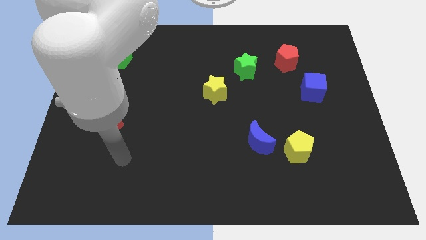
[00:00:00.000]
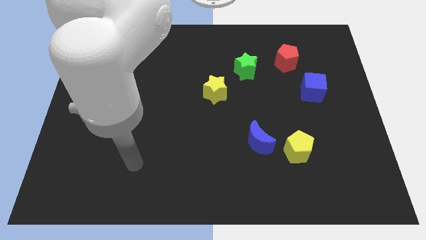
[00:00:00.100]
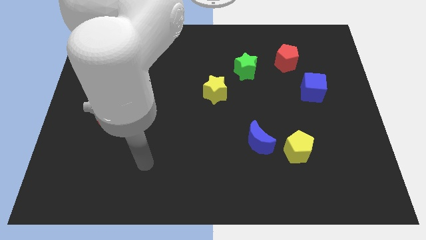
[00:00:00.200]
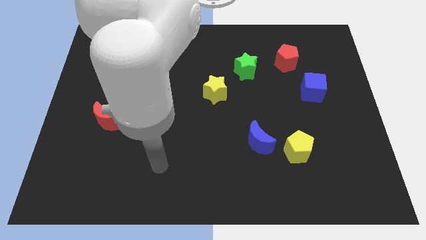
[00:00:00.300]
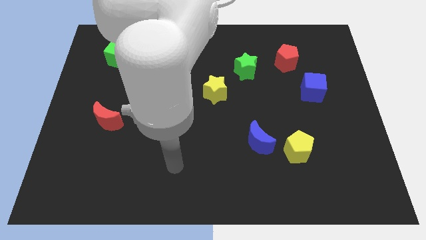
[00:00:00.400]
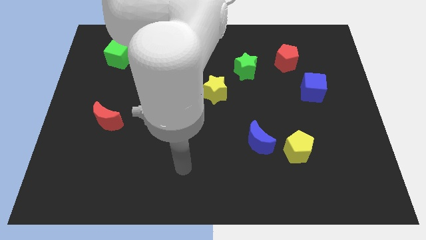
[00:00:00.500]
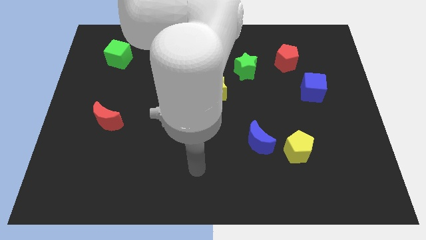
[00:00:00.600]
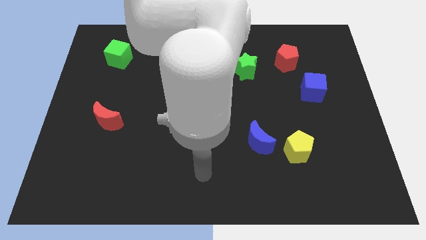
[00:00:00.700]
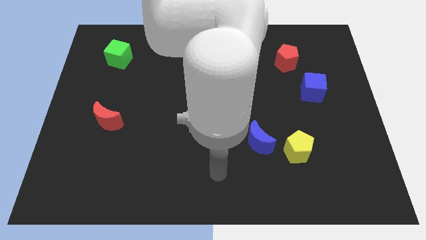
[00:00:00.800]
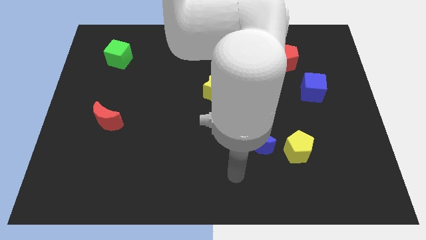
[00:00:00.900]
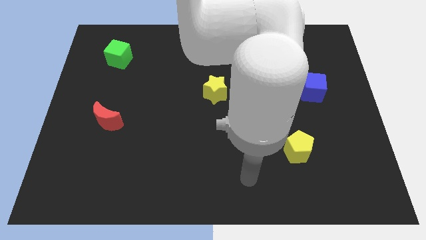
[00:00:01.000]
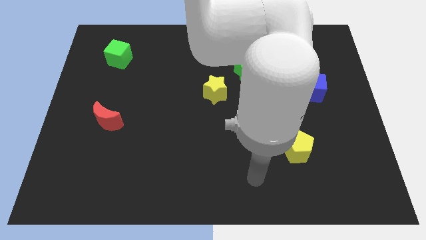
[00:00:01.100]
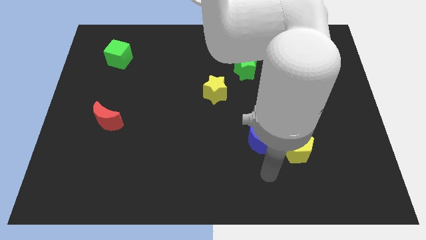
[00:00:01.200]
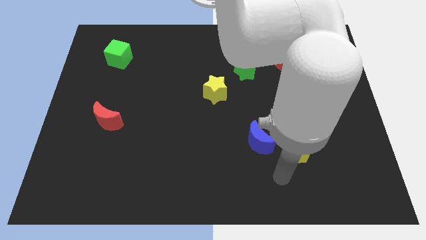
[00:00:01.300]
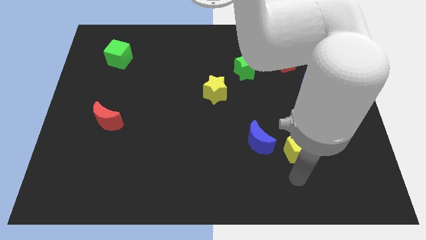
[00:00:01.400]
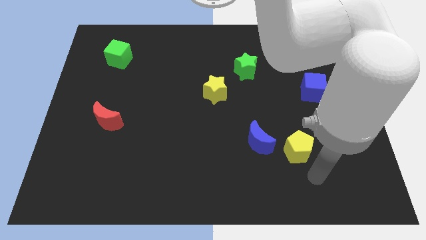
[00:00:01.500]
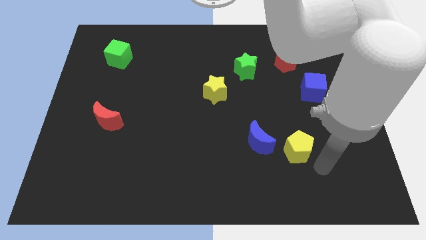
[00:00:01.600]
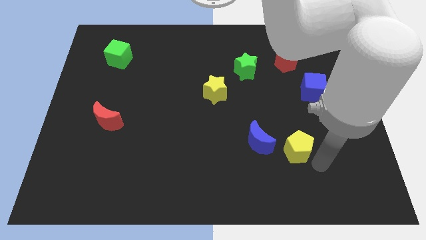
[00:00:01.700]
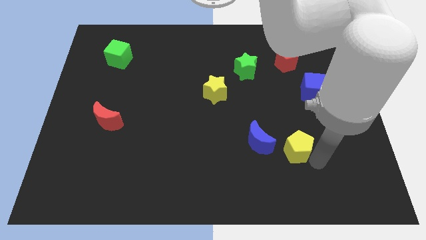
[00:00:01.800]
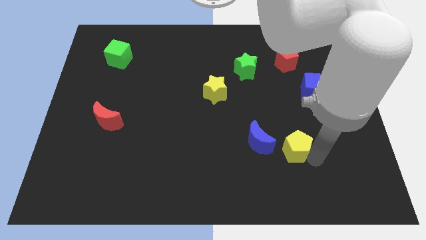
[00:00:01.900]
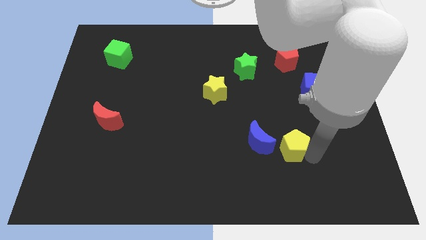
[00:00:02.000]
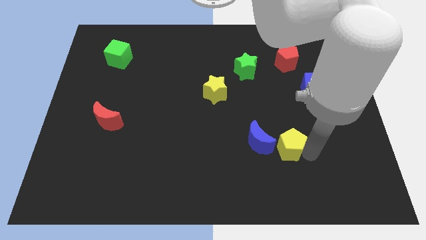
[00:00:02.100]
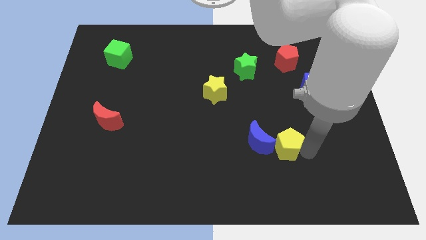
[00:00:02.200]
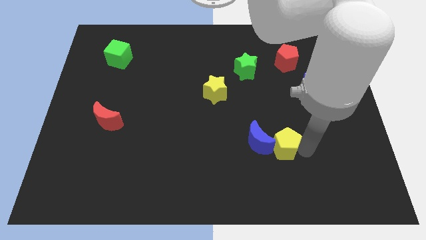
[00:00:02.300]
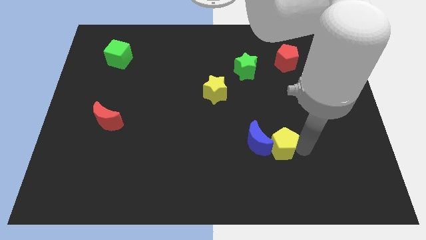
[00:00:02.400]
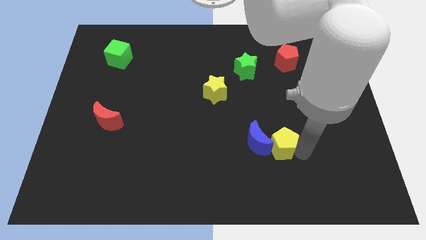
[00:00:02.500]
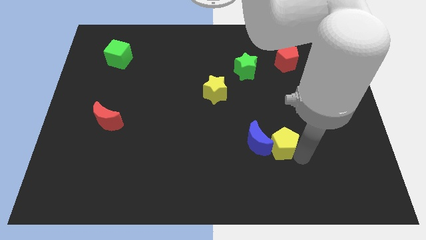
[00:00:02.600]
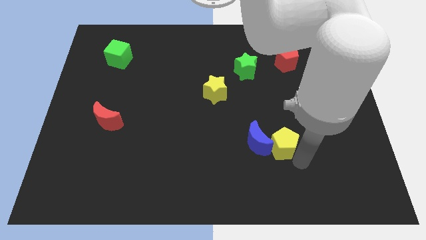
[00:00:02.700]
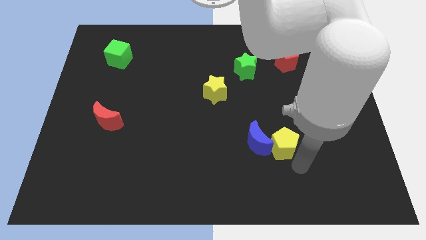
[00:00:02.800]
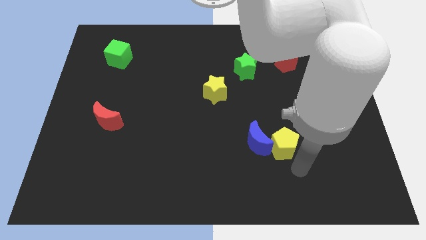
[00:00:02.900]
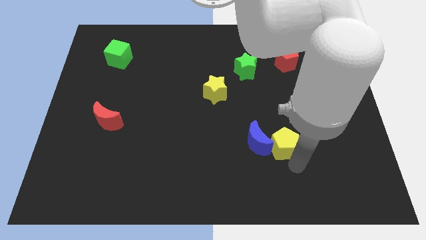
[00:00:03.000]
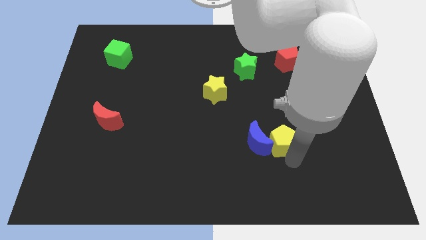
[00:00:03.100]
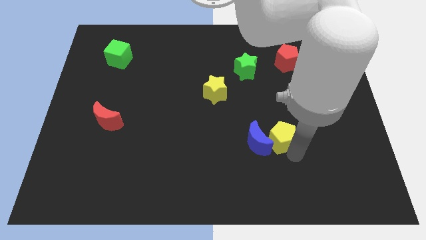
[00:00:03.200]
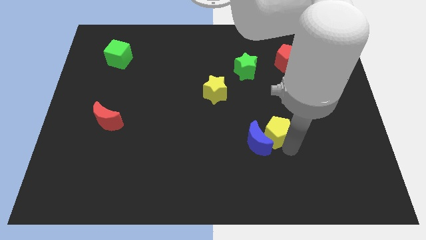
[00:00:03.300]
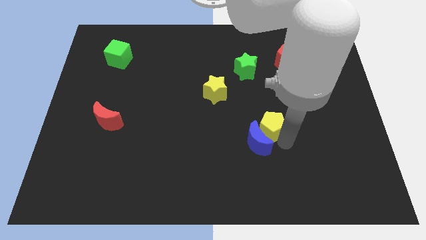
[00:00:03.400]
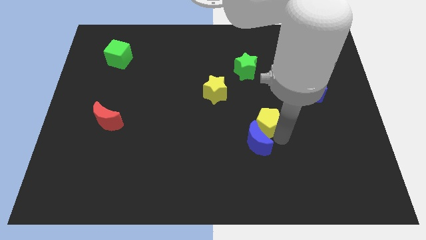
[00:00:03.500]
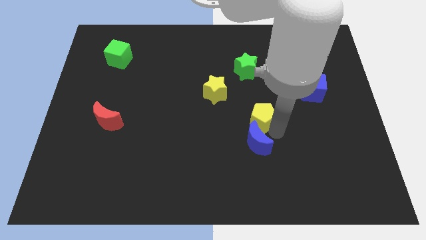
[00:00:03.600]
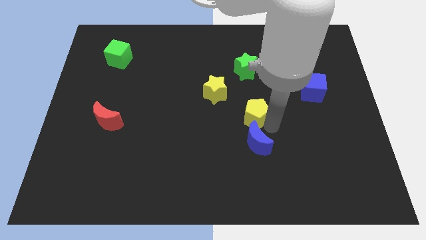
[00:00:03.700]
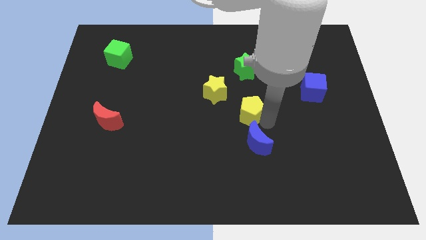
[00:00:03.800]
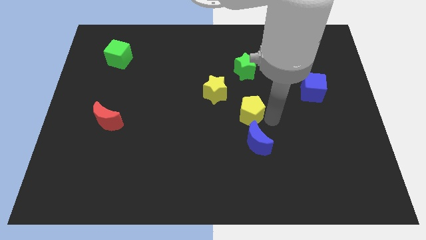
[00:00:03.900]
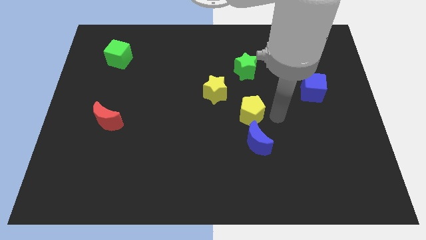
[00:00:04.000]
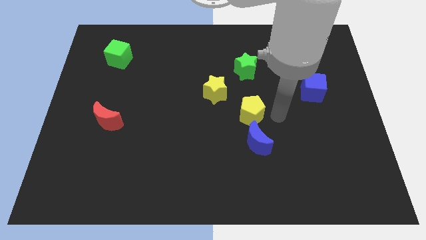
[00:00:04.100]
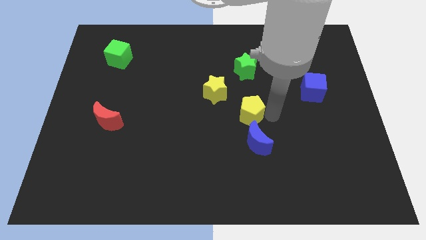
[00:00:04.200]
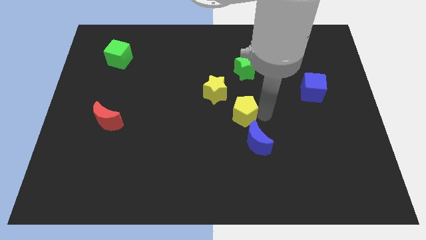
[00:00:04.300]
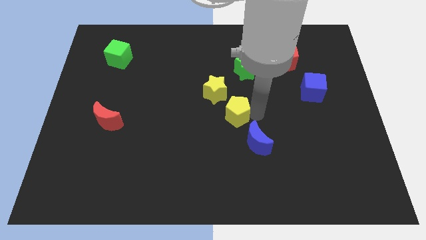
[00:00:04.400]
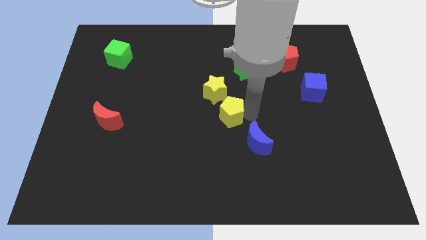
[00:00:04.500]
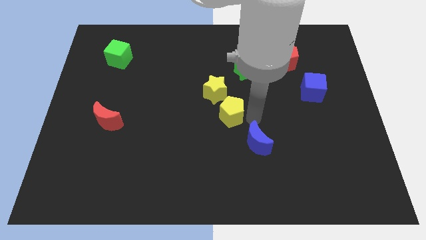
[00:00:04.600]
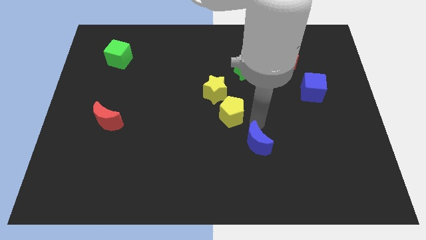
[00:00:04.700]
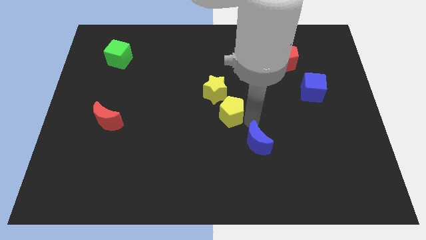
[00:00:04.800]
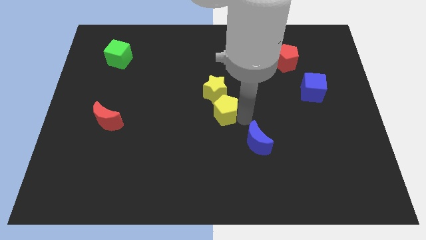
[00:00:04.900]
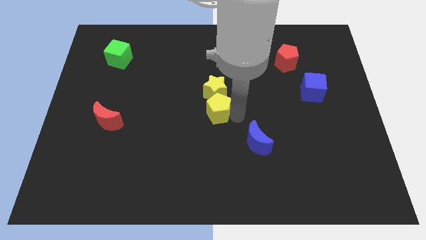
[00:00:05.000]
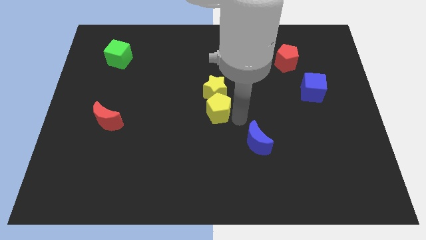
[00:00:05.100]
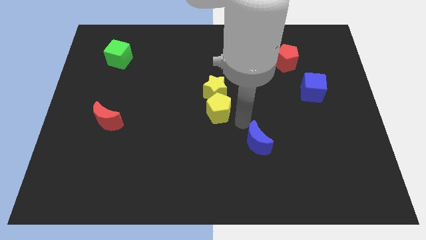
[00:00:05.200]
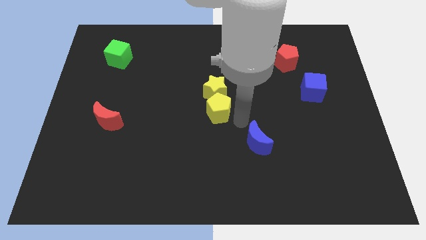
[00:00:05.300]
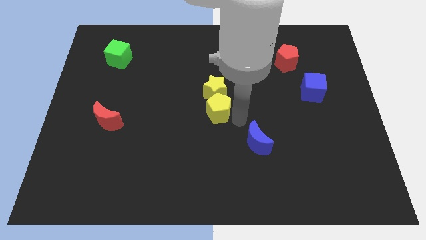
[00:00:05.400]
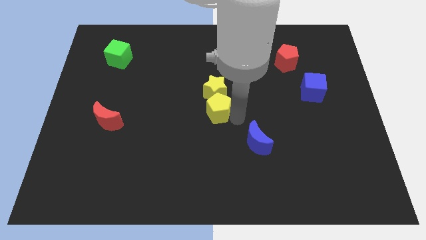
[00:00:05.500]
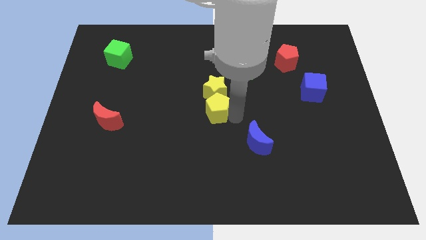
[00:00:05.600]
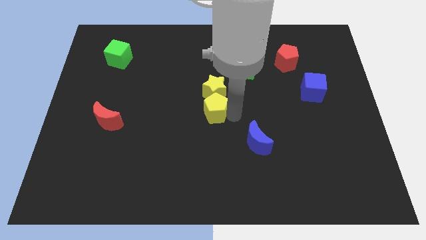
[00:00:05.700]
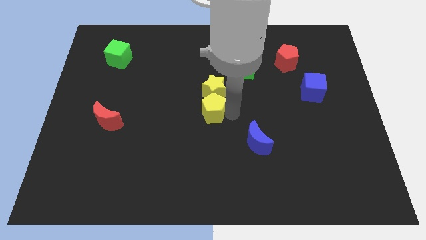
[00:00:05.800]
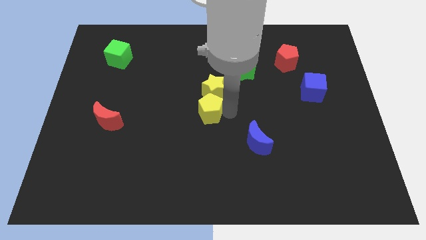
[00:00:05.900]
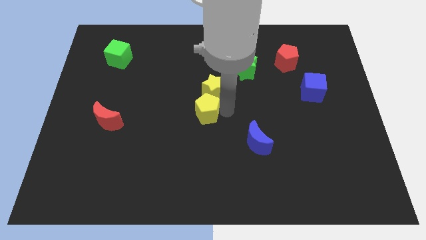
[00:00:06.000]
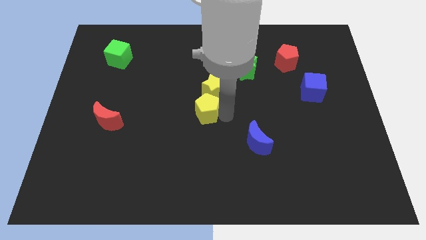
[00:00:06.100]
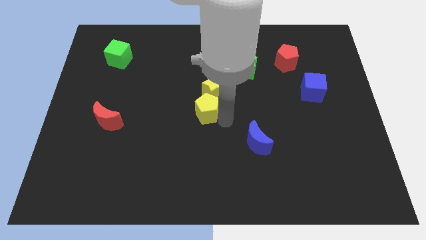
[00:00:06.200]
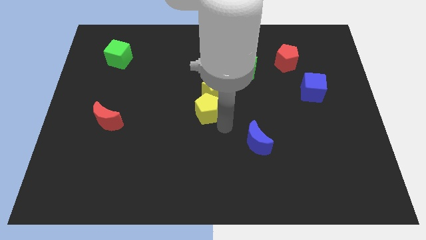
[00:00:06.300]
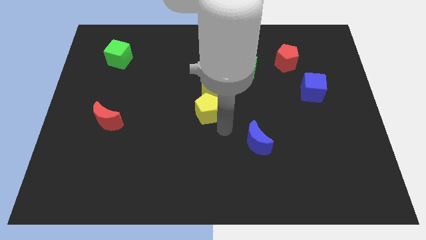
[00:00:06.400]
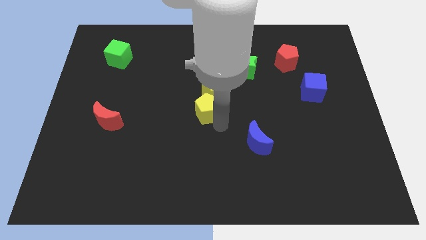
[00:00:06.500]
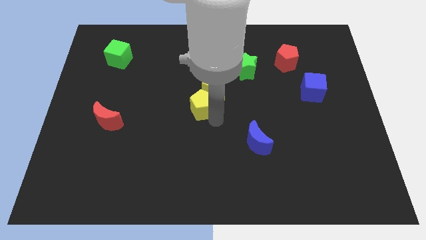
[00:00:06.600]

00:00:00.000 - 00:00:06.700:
put the yellow pentagon left of the yellow star

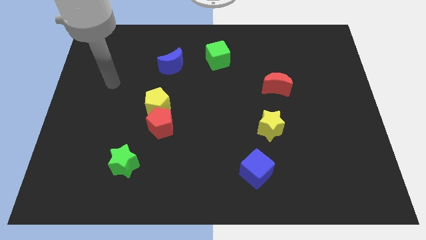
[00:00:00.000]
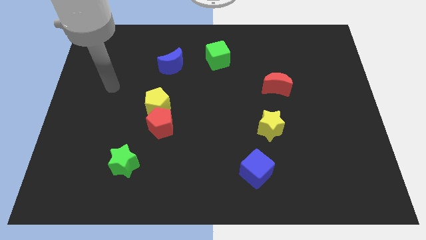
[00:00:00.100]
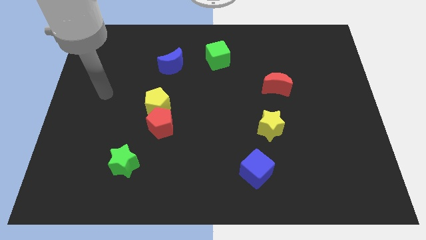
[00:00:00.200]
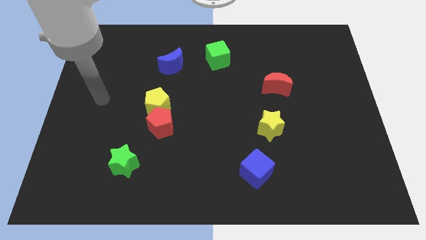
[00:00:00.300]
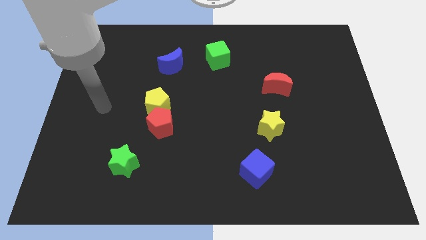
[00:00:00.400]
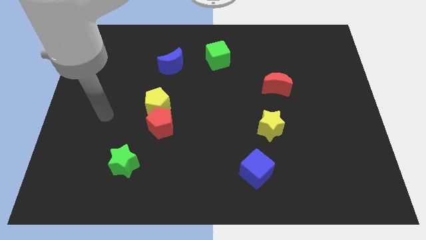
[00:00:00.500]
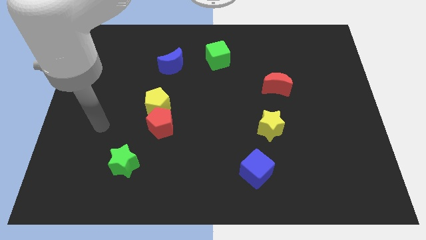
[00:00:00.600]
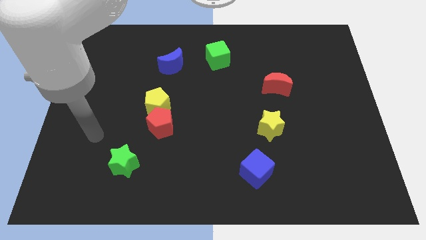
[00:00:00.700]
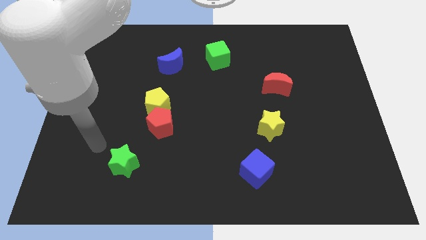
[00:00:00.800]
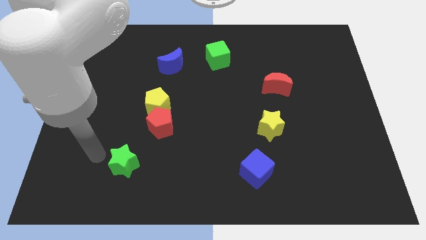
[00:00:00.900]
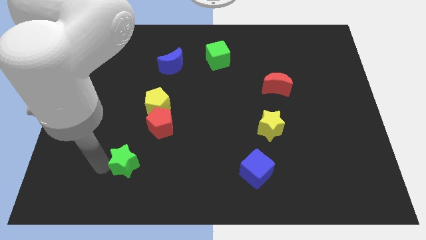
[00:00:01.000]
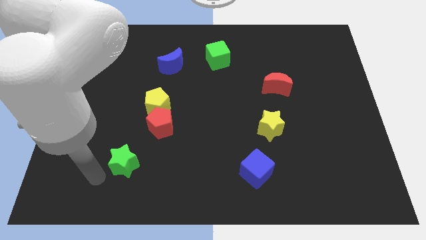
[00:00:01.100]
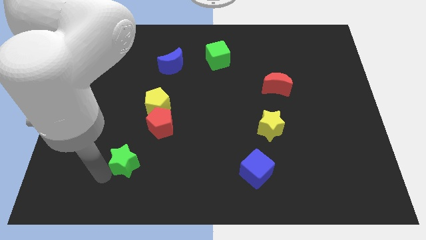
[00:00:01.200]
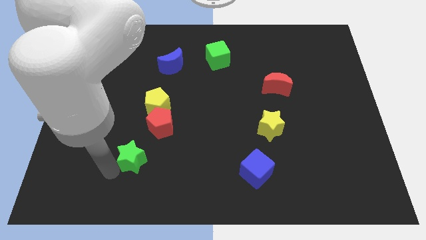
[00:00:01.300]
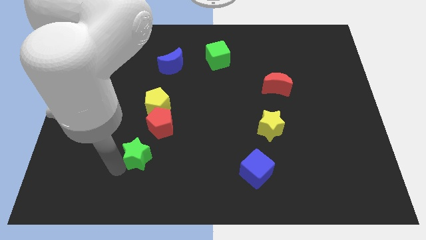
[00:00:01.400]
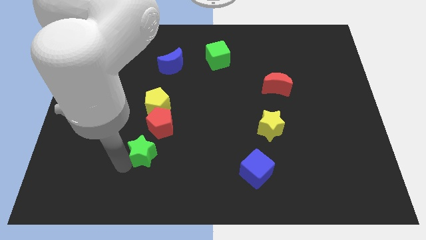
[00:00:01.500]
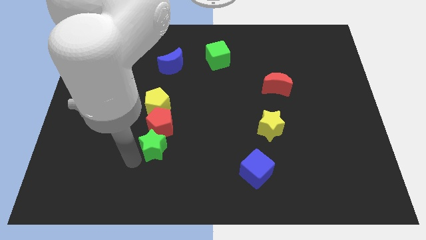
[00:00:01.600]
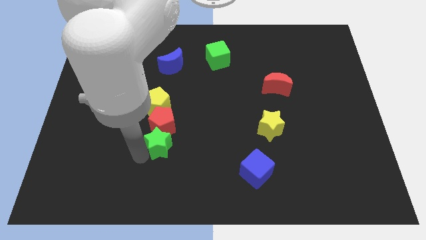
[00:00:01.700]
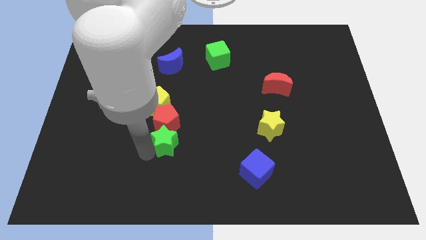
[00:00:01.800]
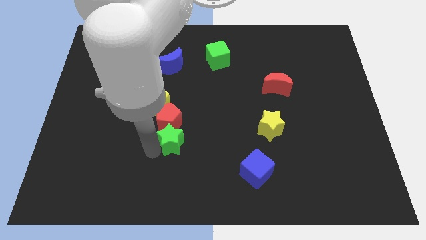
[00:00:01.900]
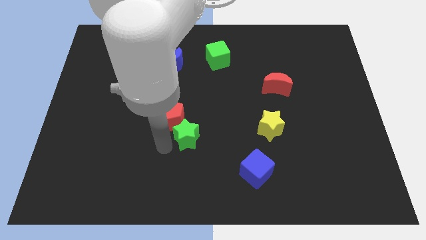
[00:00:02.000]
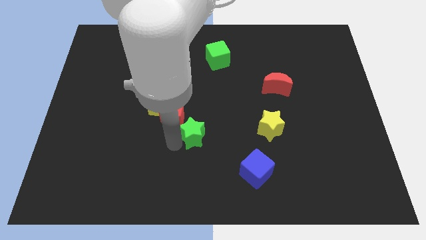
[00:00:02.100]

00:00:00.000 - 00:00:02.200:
put the green star to the right of the red pentagon
